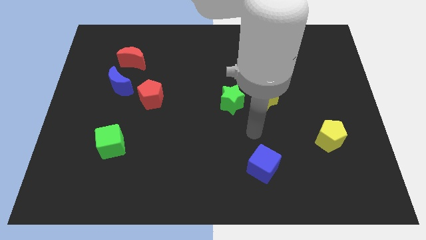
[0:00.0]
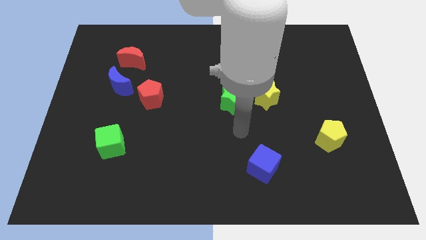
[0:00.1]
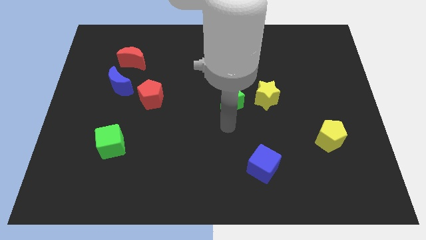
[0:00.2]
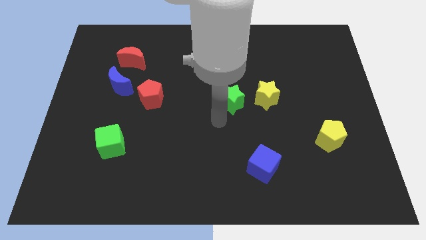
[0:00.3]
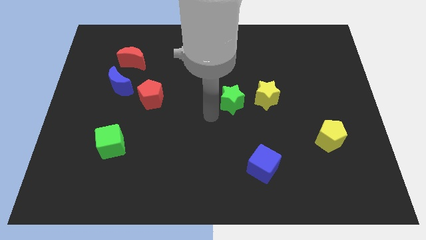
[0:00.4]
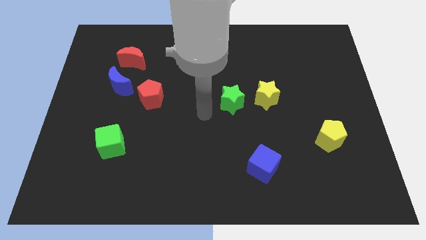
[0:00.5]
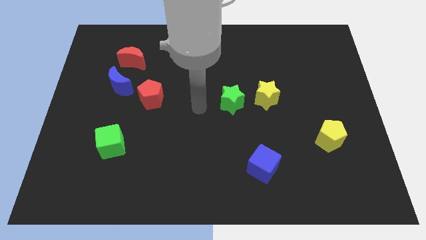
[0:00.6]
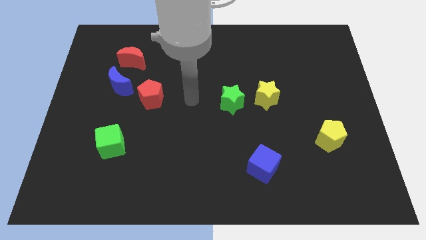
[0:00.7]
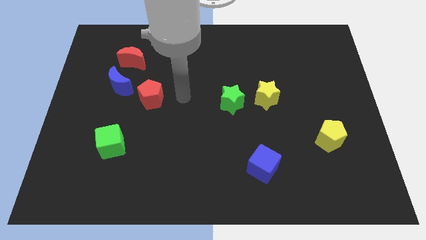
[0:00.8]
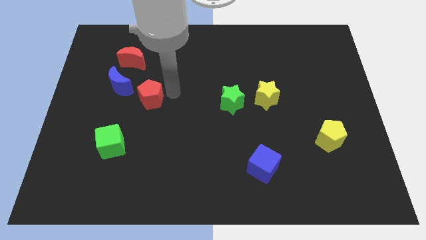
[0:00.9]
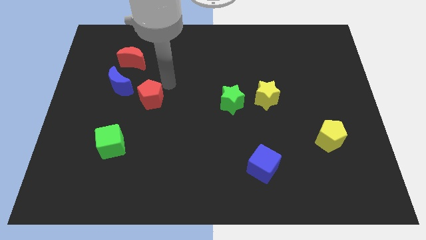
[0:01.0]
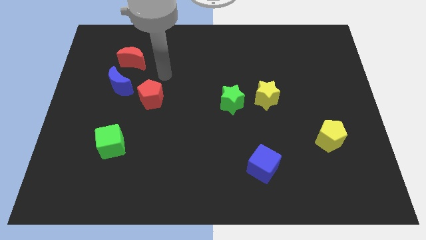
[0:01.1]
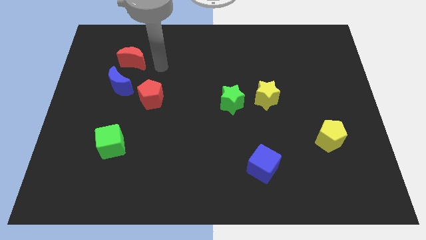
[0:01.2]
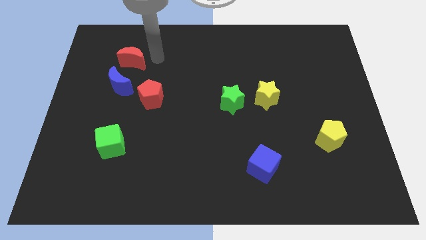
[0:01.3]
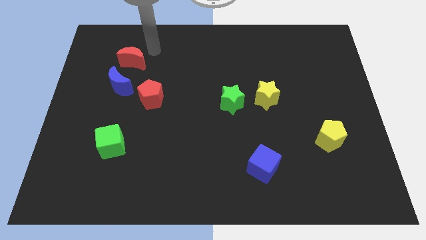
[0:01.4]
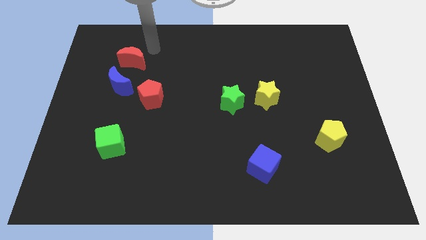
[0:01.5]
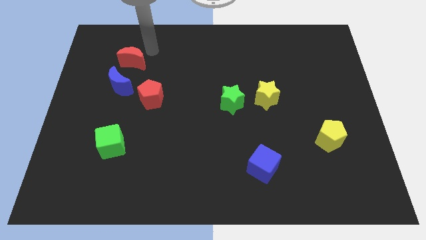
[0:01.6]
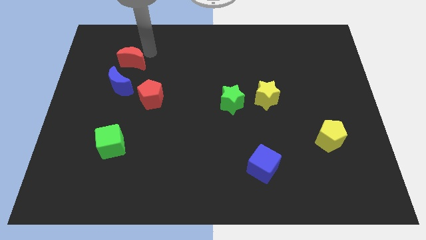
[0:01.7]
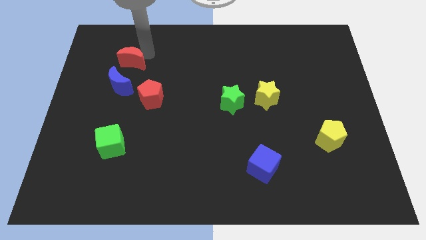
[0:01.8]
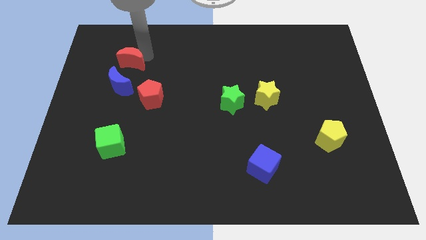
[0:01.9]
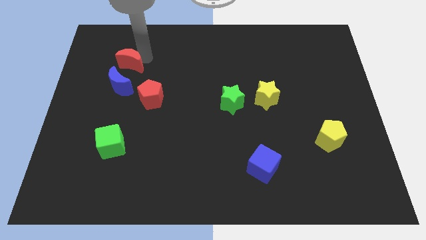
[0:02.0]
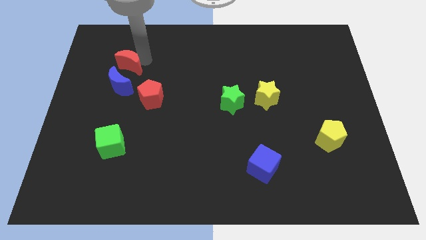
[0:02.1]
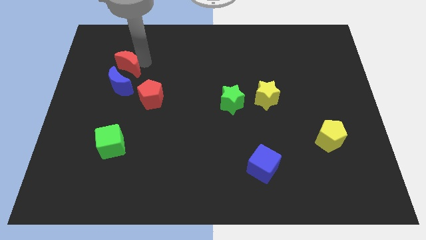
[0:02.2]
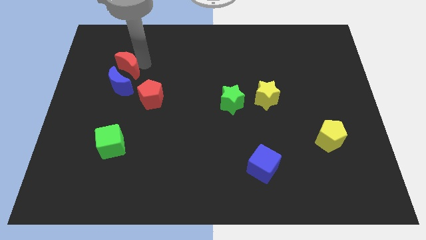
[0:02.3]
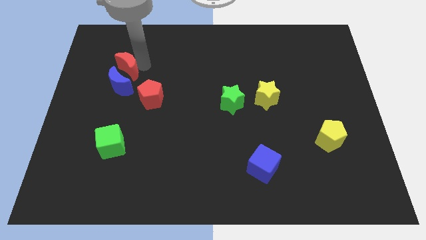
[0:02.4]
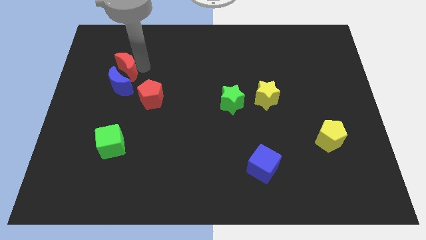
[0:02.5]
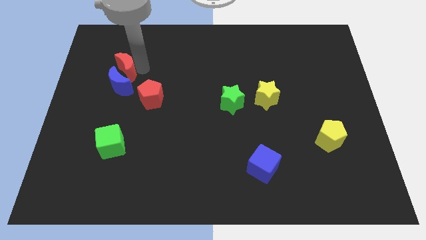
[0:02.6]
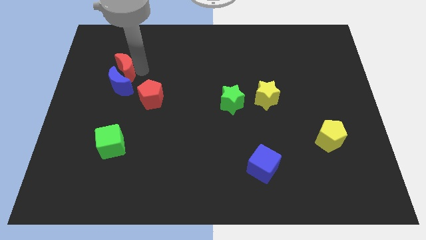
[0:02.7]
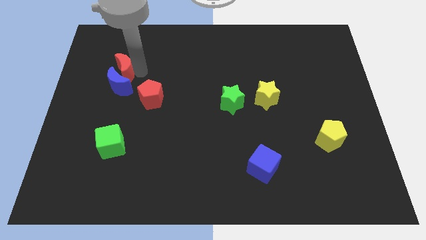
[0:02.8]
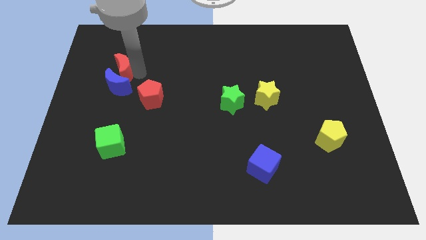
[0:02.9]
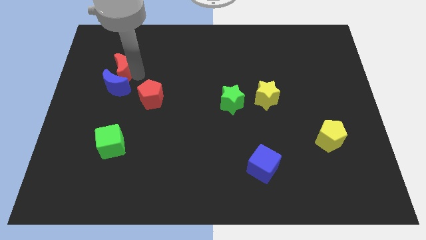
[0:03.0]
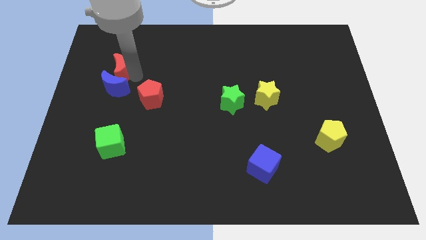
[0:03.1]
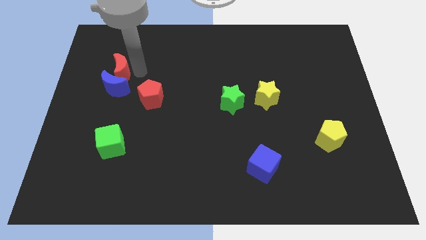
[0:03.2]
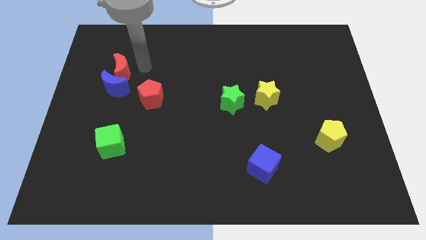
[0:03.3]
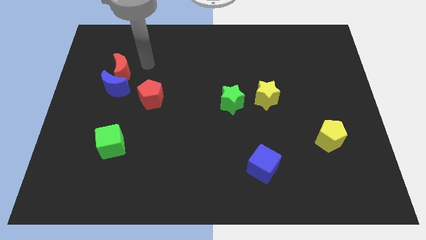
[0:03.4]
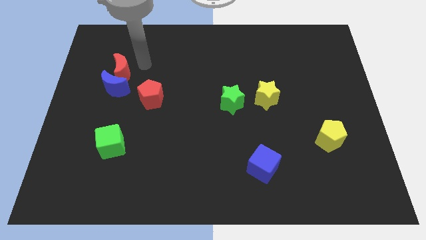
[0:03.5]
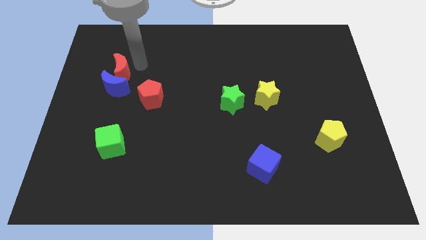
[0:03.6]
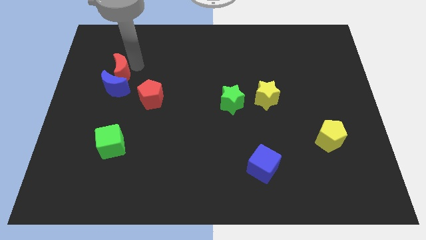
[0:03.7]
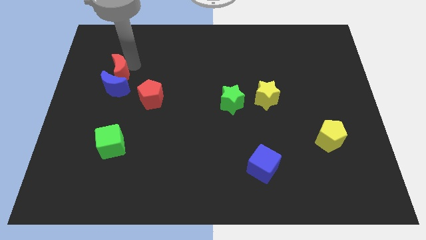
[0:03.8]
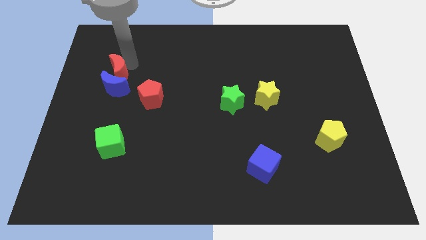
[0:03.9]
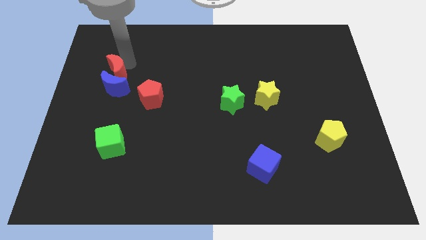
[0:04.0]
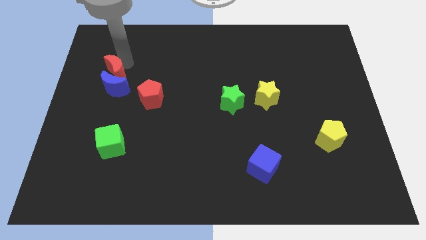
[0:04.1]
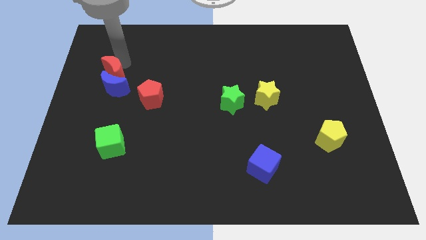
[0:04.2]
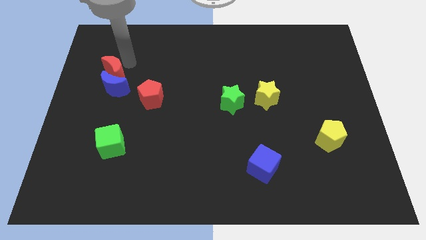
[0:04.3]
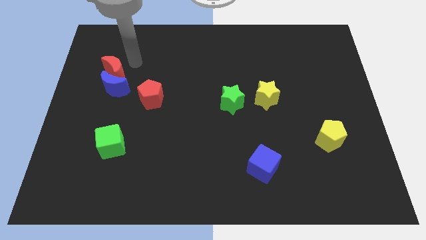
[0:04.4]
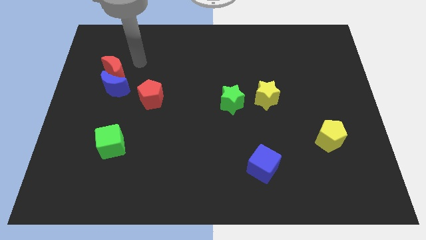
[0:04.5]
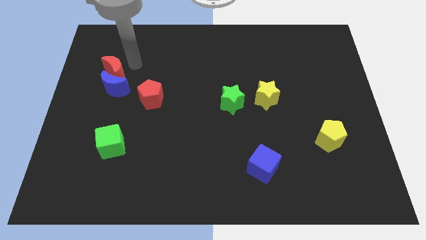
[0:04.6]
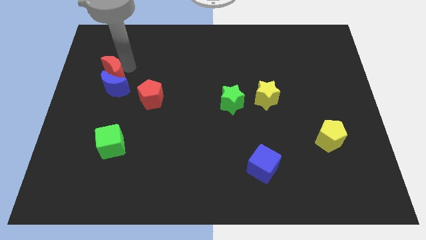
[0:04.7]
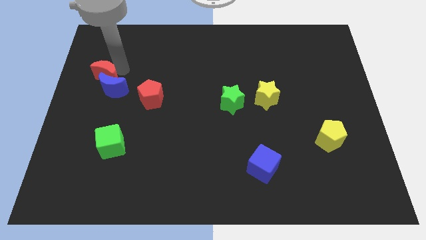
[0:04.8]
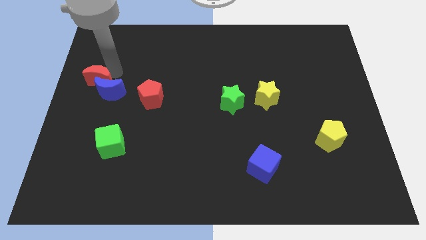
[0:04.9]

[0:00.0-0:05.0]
slide the red moon to the left side

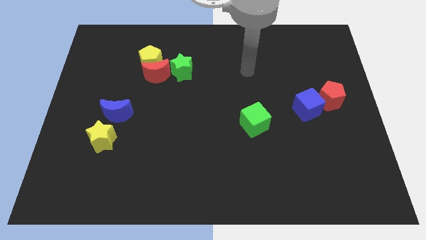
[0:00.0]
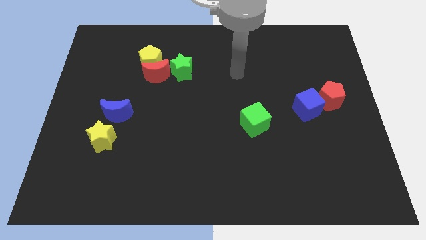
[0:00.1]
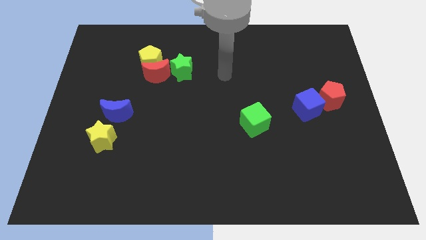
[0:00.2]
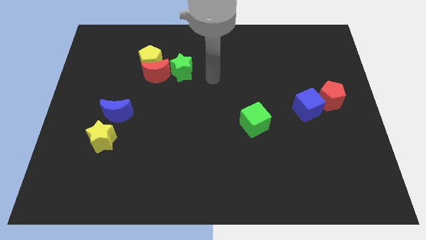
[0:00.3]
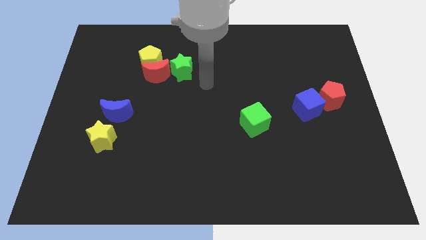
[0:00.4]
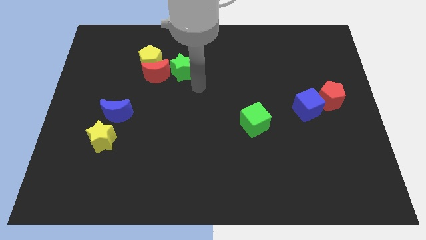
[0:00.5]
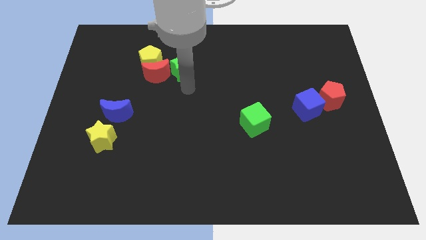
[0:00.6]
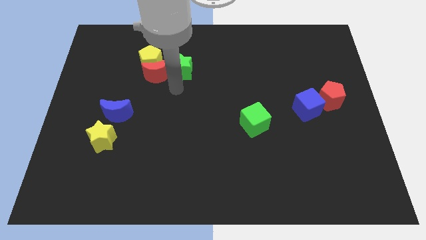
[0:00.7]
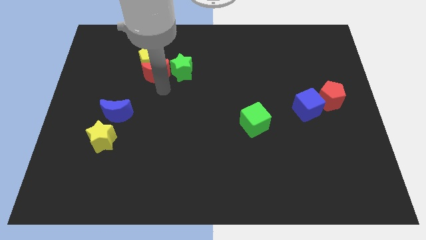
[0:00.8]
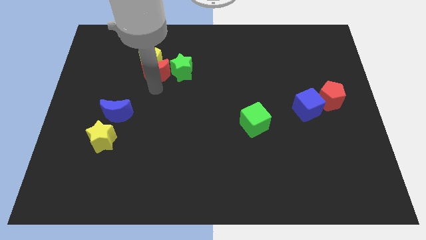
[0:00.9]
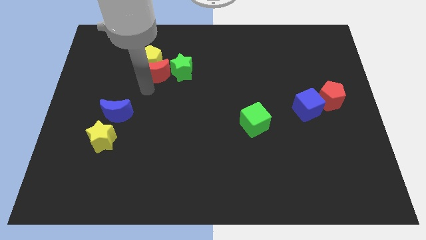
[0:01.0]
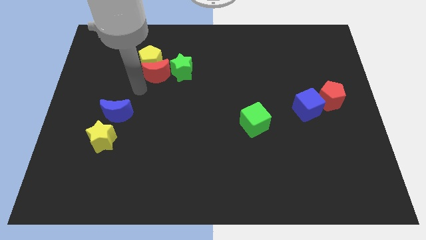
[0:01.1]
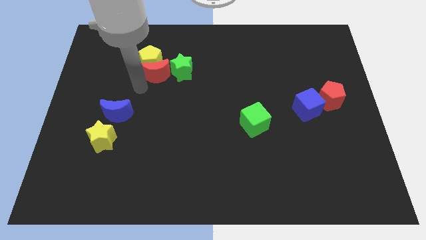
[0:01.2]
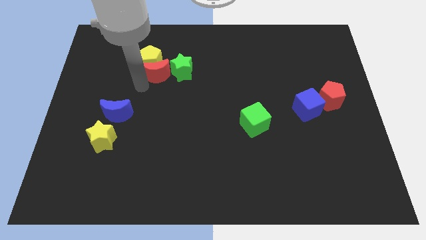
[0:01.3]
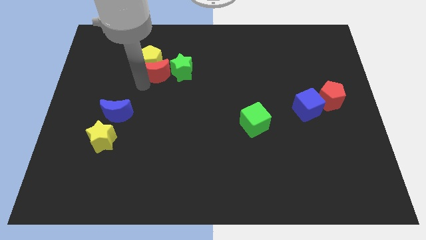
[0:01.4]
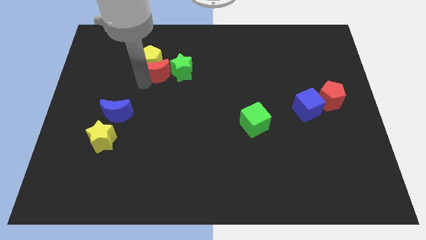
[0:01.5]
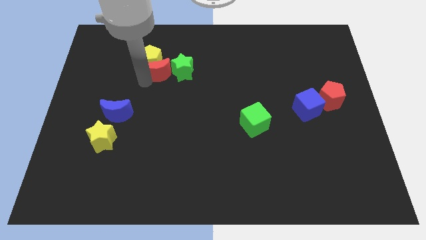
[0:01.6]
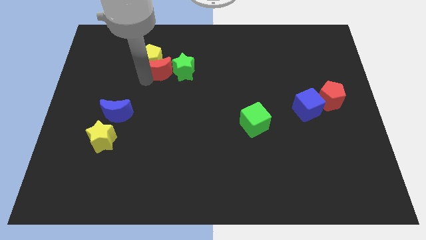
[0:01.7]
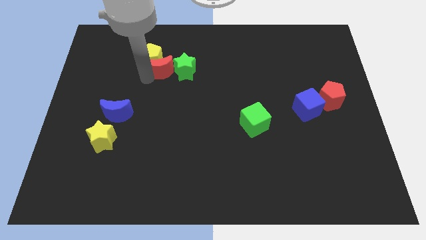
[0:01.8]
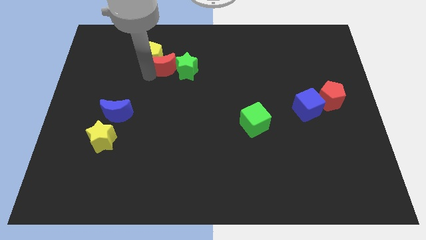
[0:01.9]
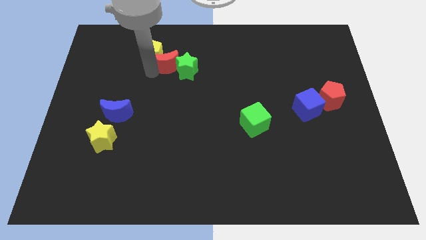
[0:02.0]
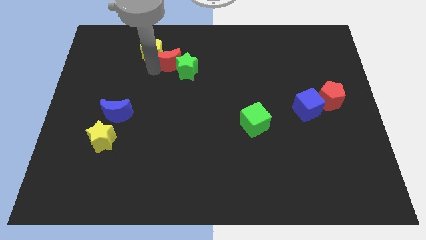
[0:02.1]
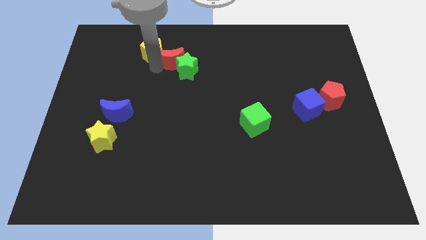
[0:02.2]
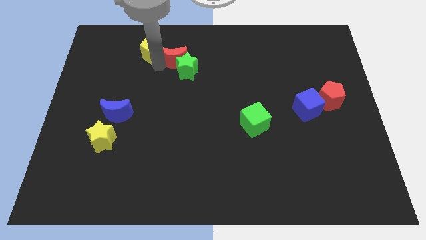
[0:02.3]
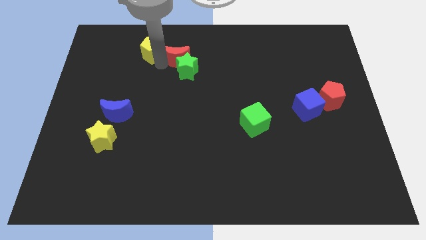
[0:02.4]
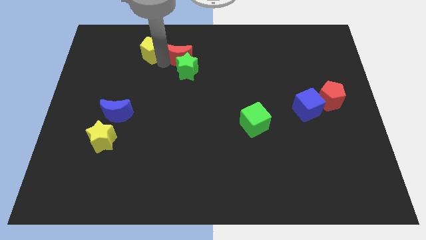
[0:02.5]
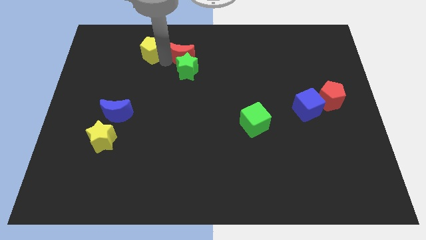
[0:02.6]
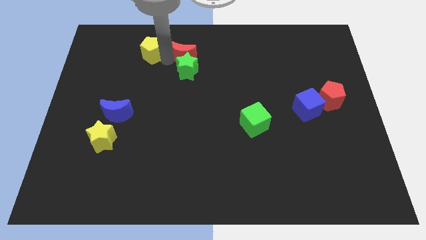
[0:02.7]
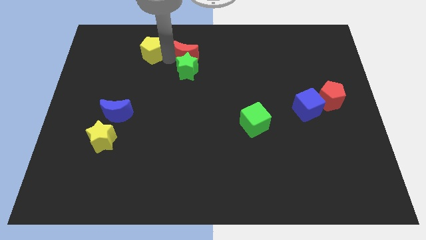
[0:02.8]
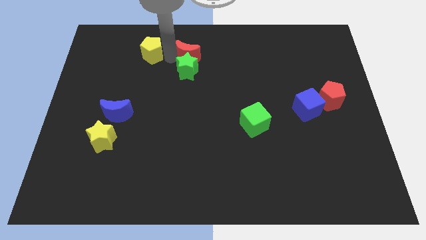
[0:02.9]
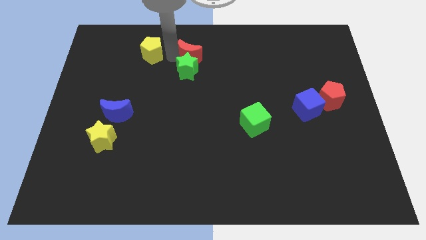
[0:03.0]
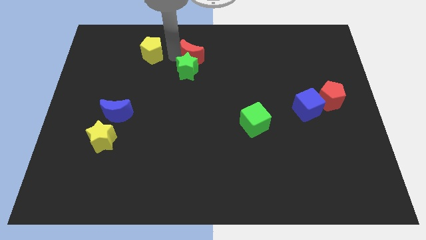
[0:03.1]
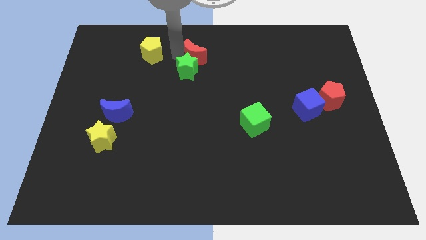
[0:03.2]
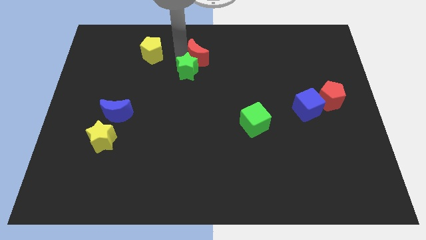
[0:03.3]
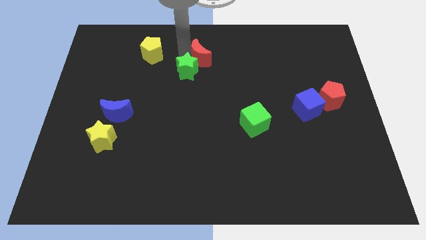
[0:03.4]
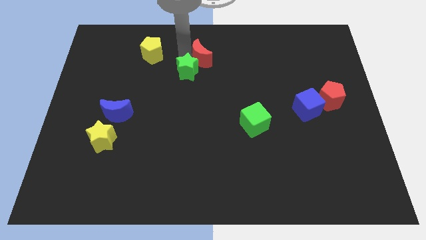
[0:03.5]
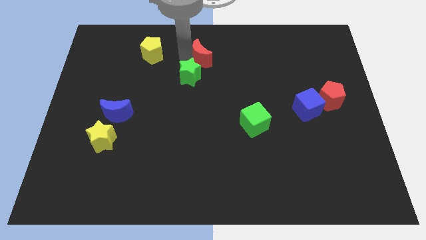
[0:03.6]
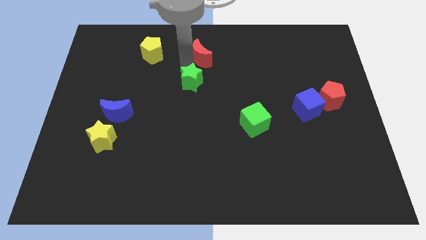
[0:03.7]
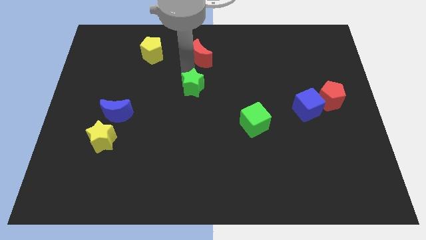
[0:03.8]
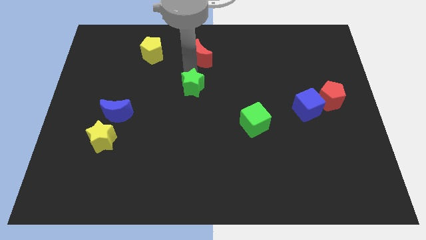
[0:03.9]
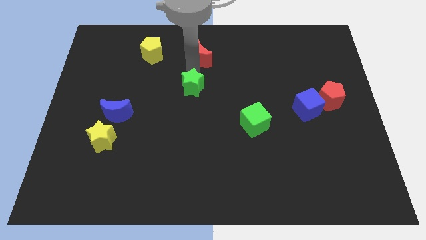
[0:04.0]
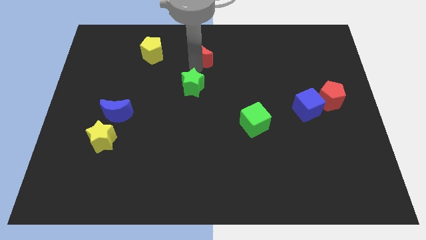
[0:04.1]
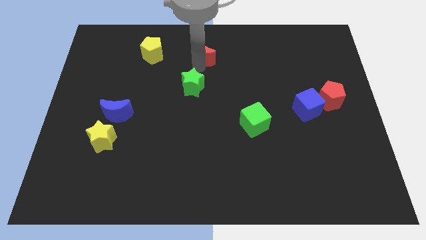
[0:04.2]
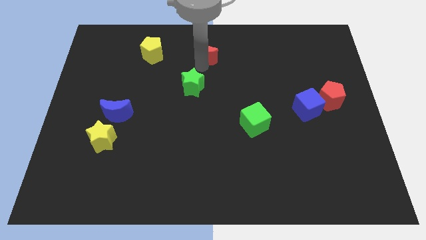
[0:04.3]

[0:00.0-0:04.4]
slide the red moon to the towards your base
